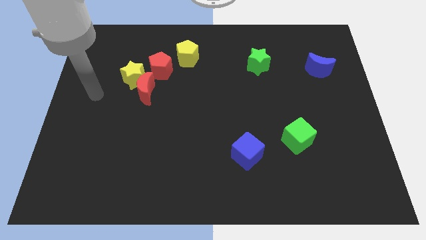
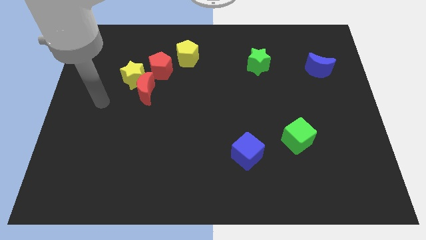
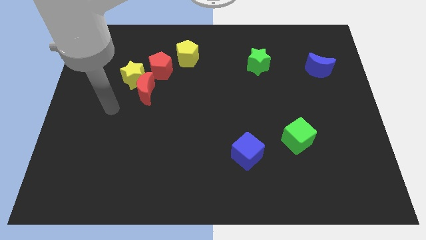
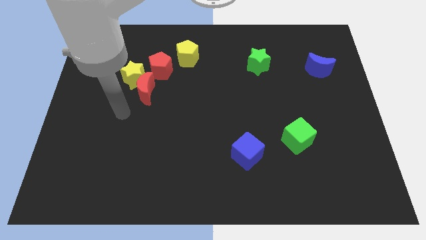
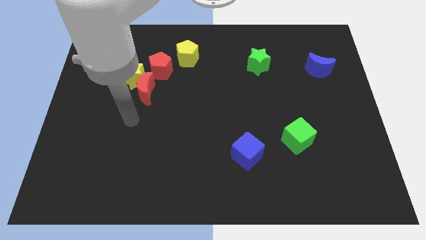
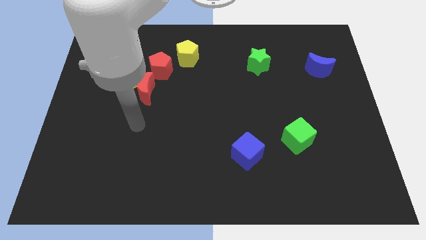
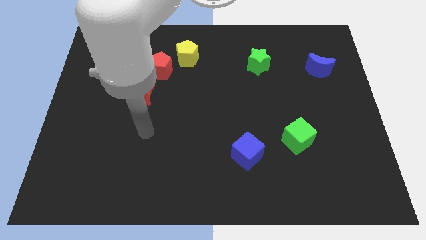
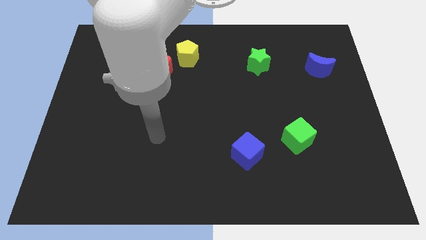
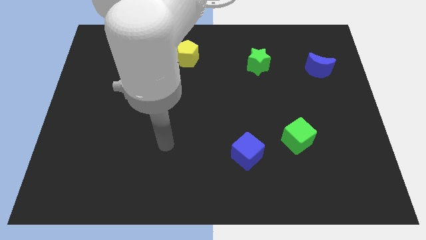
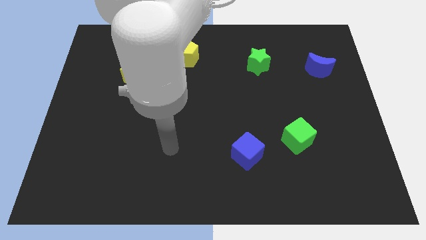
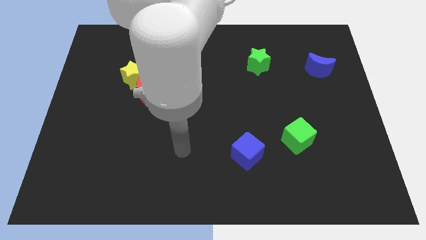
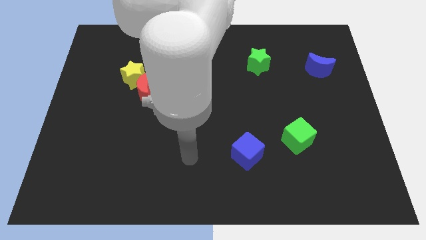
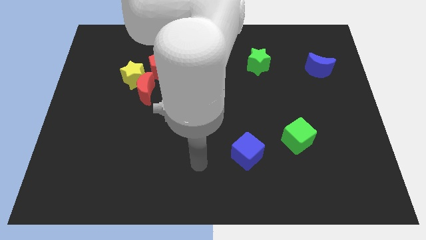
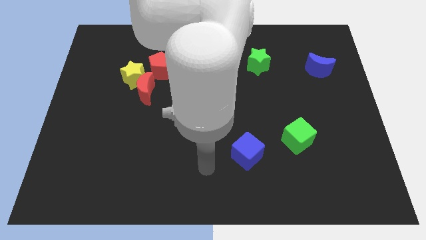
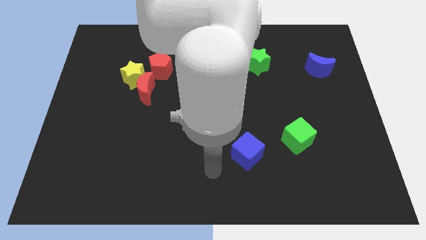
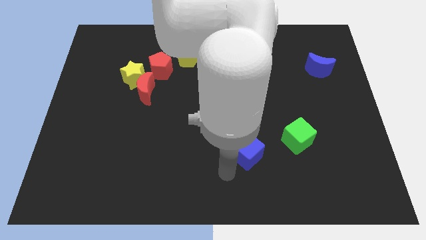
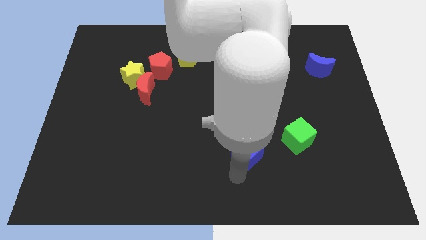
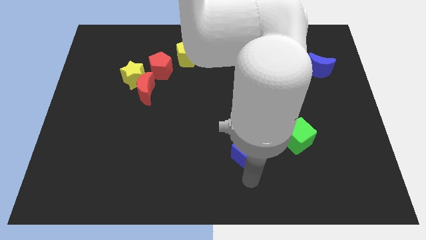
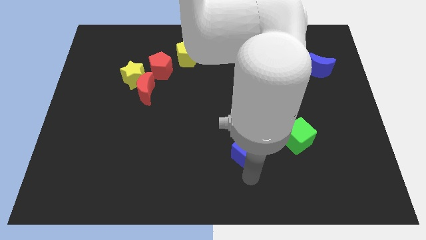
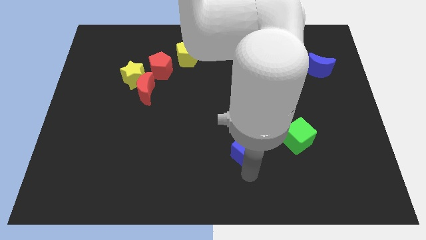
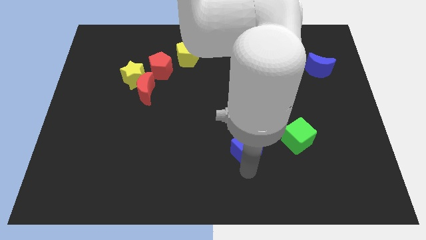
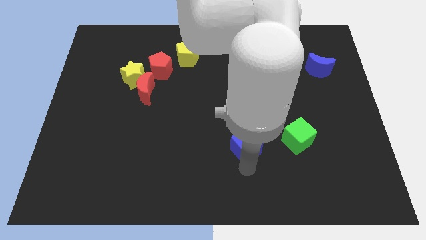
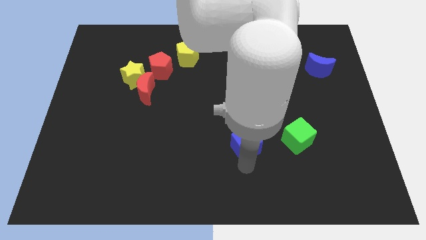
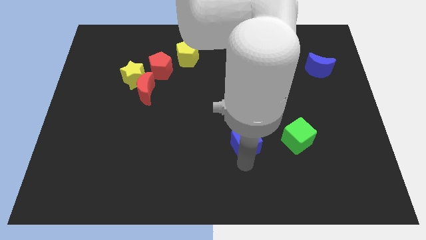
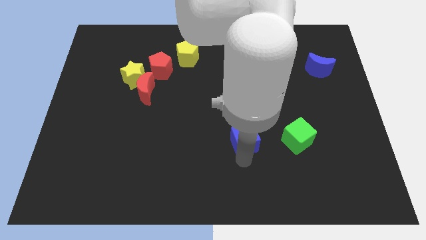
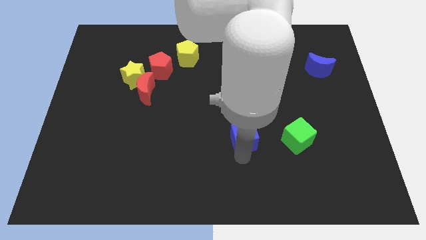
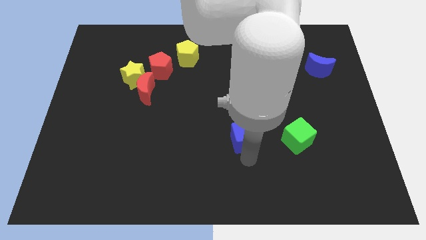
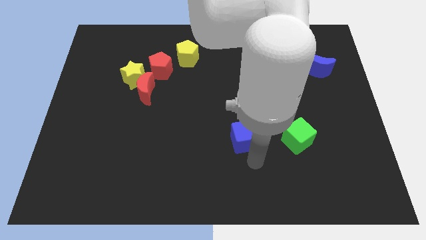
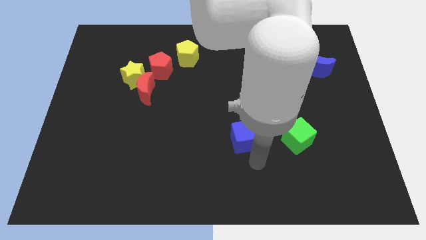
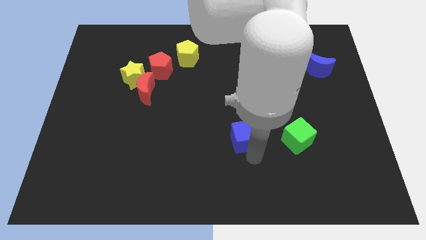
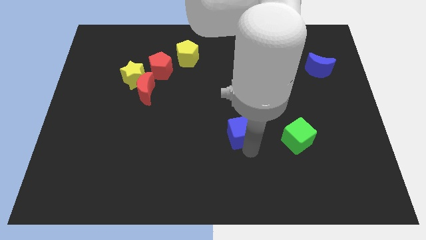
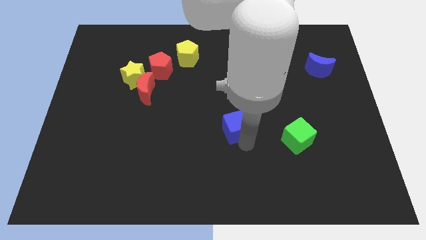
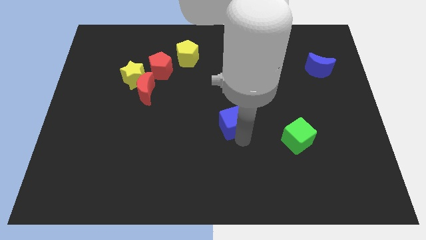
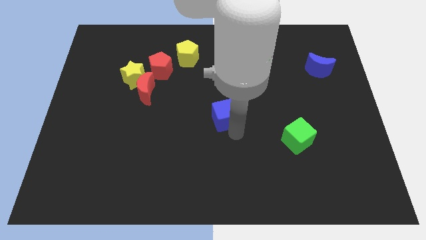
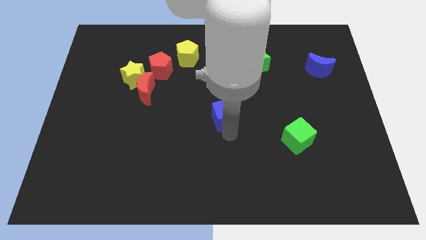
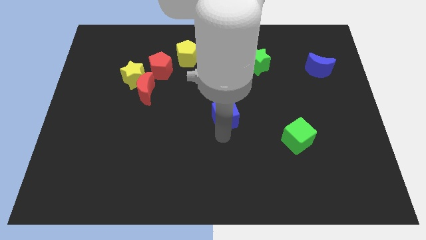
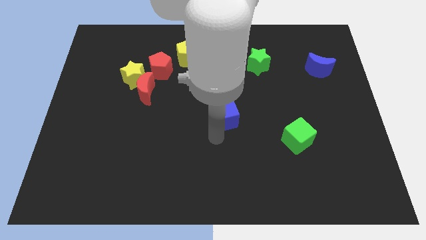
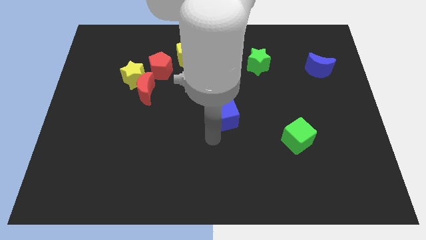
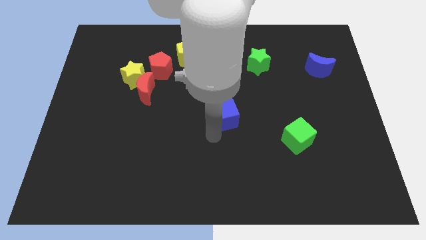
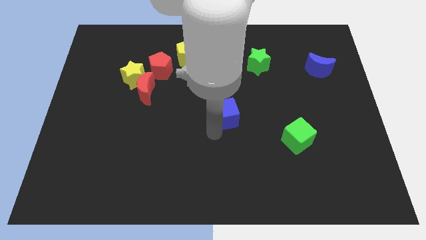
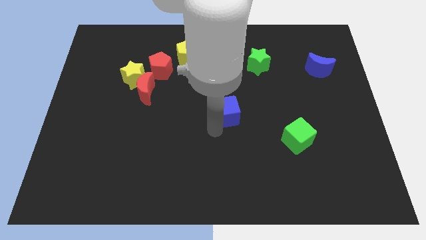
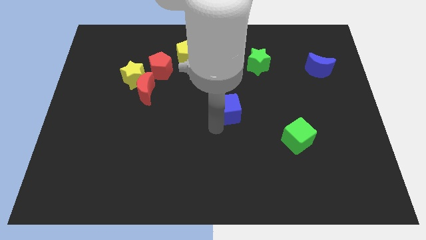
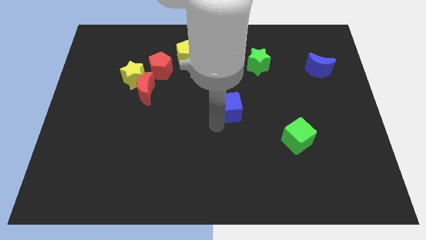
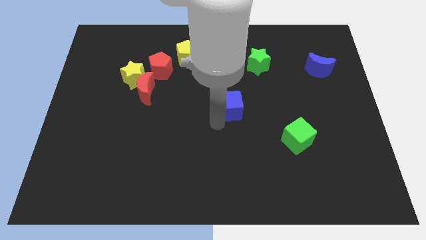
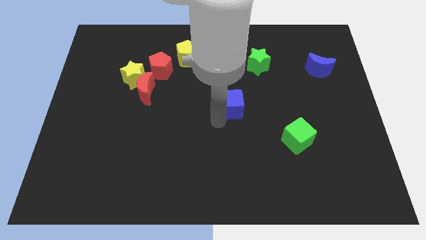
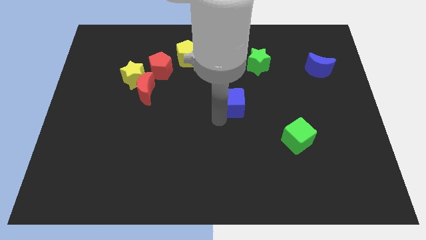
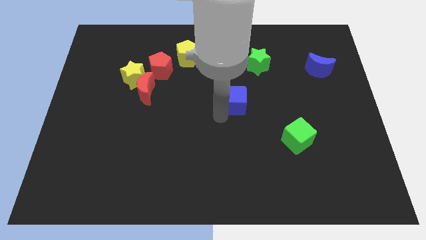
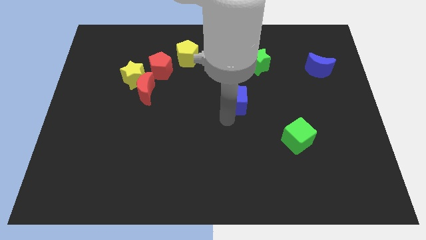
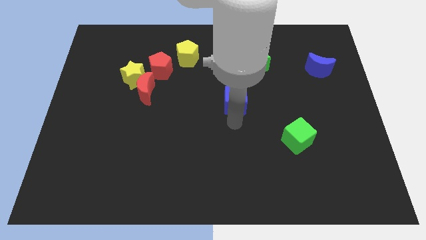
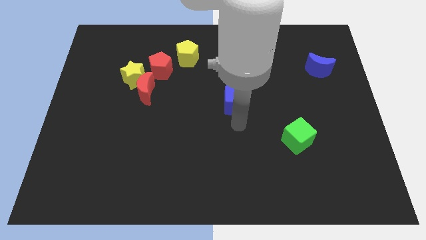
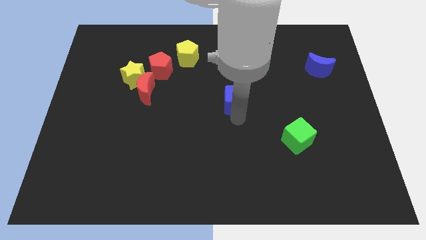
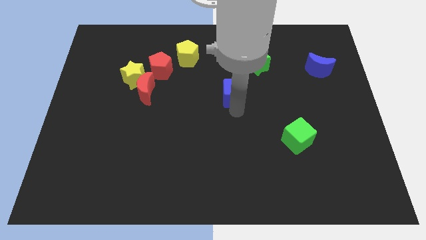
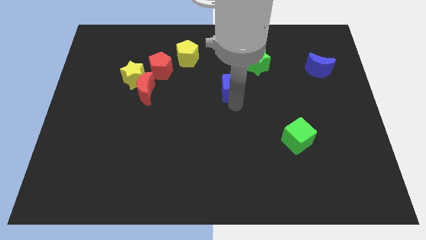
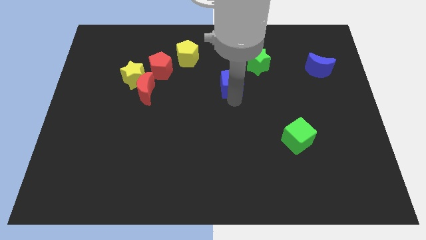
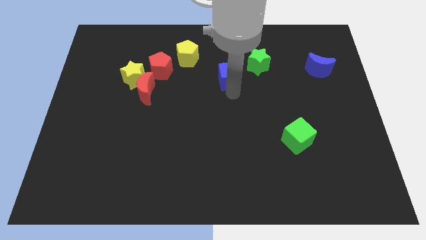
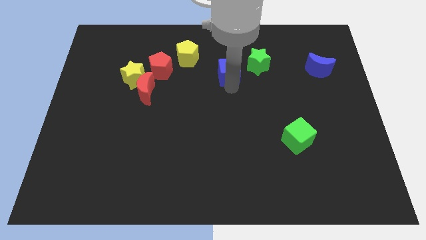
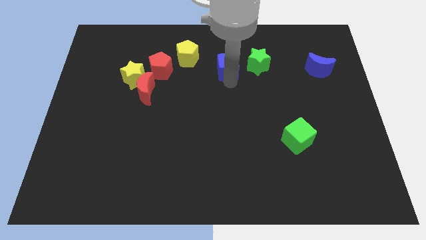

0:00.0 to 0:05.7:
move the blue cube to the right of the yellow pentagon

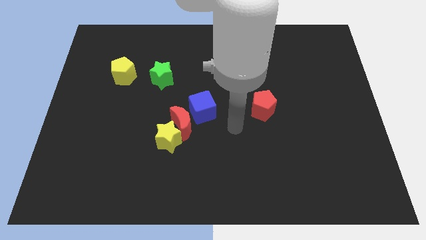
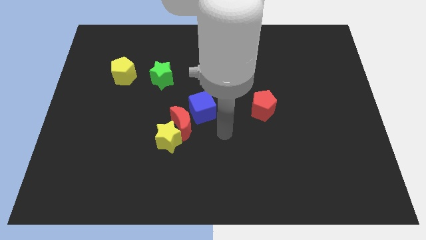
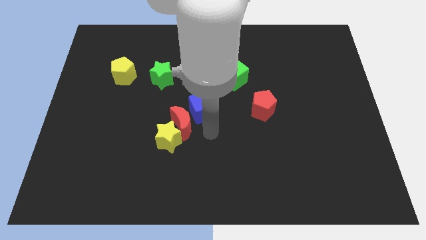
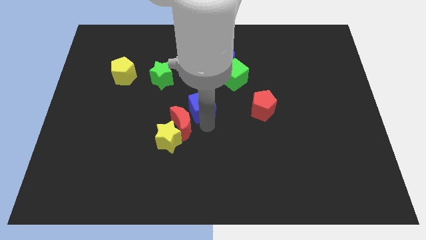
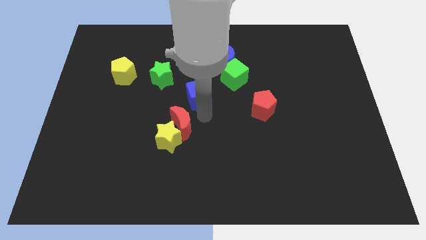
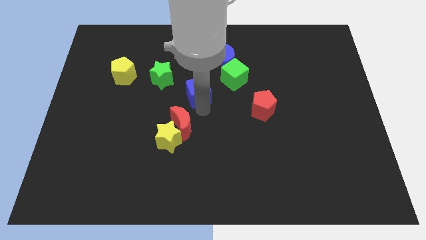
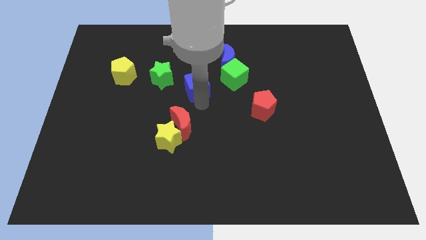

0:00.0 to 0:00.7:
move the blue cube to the left side of the green cube
